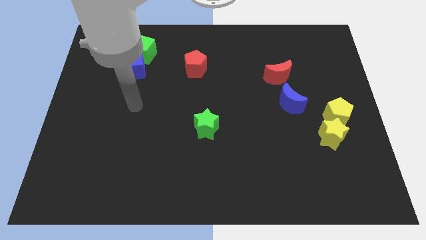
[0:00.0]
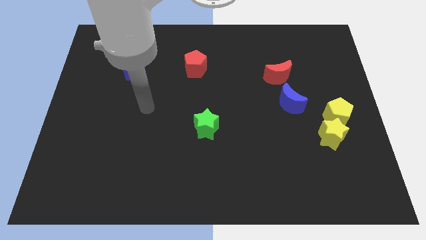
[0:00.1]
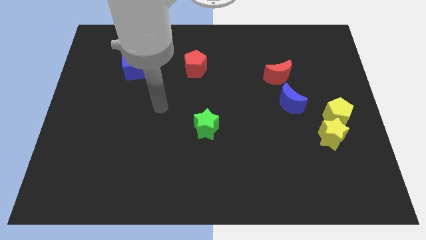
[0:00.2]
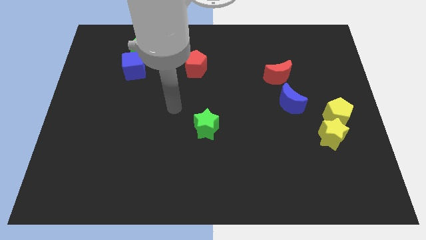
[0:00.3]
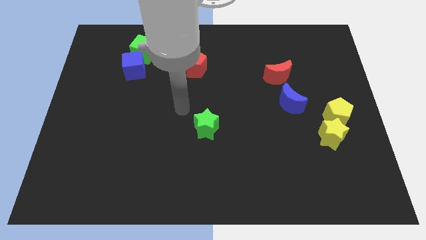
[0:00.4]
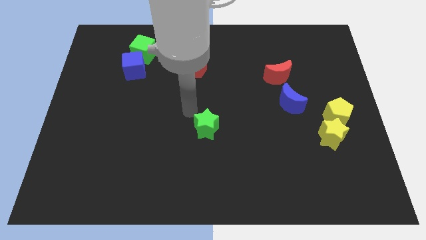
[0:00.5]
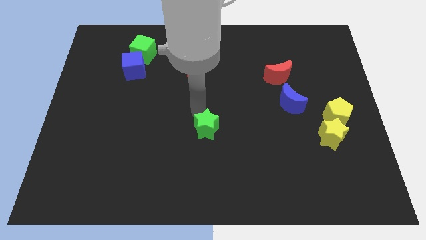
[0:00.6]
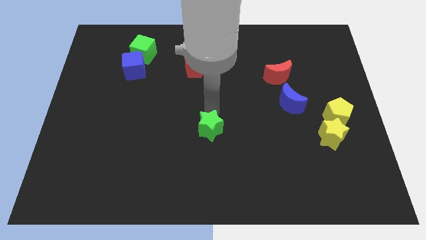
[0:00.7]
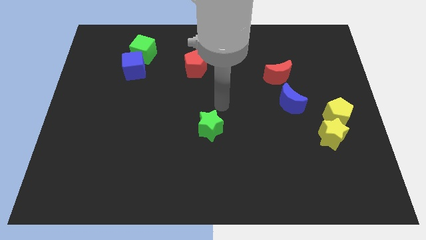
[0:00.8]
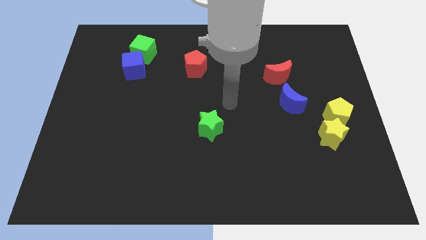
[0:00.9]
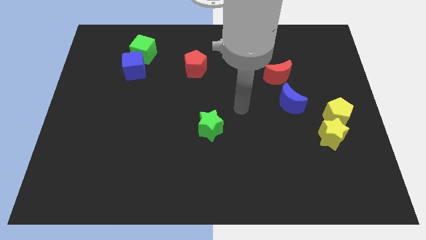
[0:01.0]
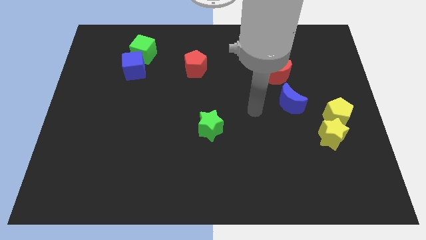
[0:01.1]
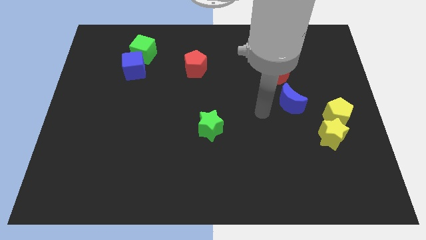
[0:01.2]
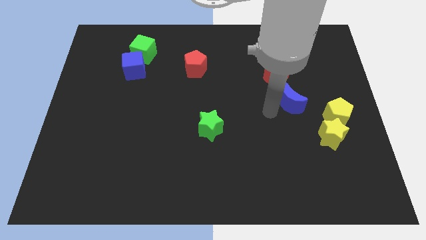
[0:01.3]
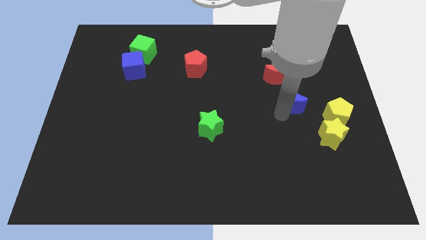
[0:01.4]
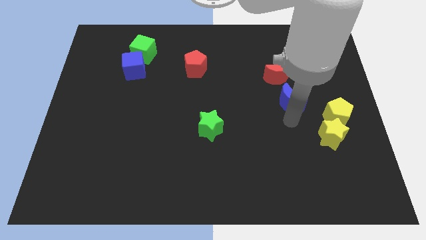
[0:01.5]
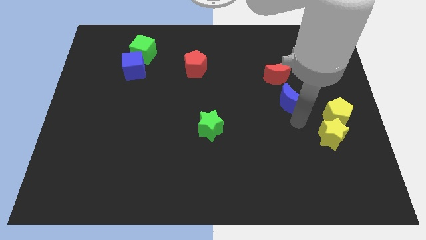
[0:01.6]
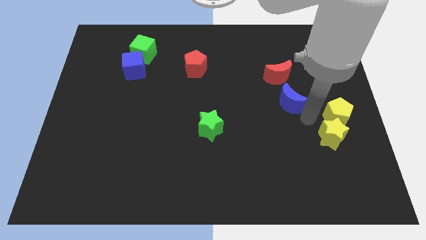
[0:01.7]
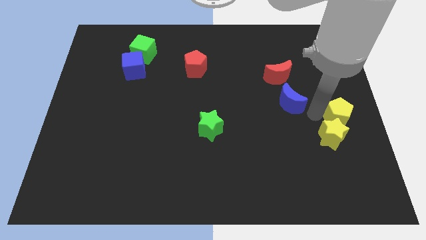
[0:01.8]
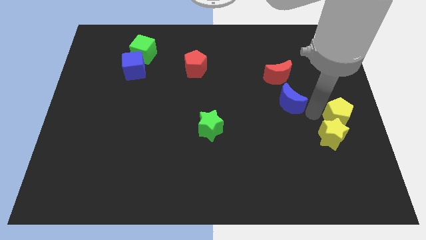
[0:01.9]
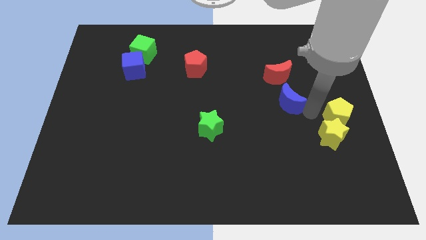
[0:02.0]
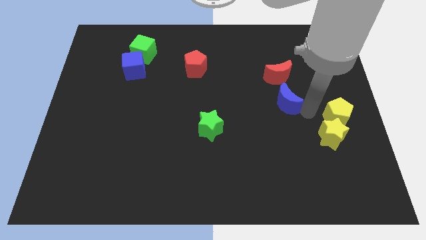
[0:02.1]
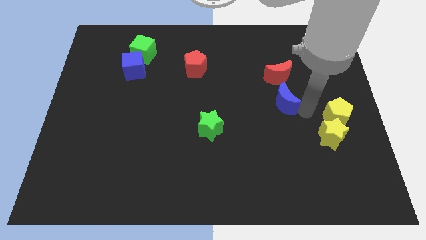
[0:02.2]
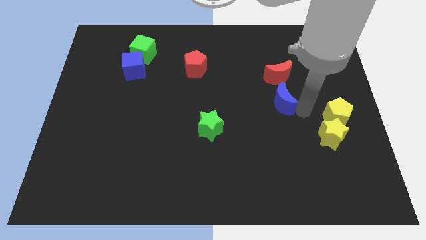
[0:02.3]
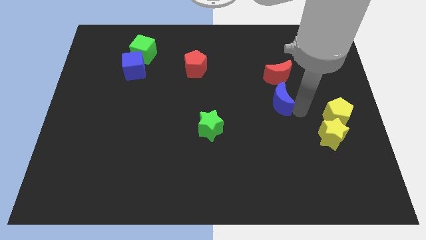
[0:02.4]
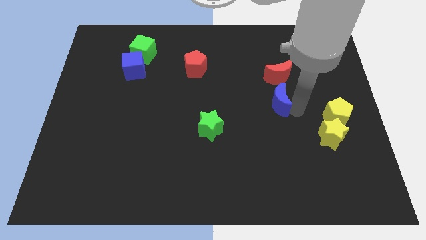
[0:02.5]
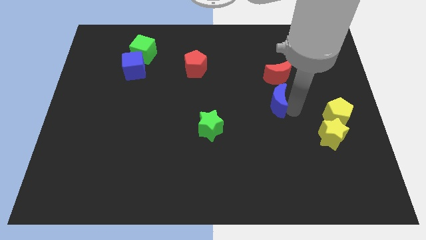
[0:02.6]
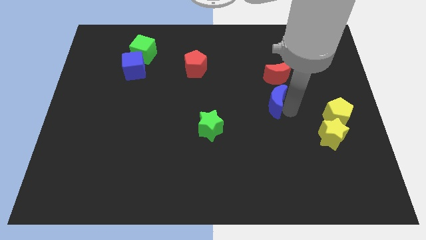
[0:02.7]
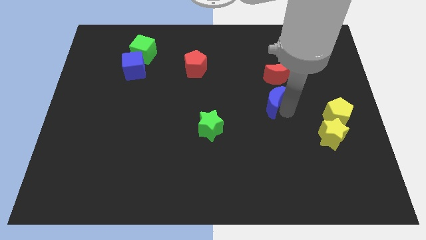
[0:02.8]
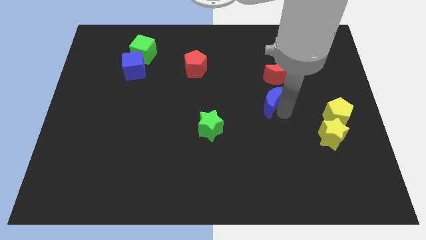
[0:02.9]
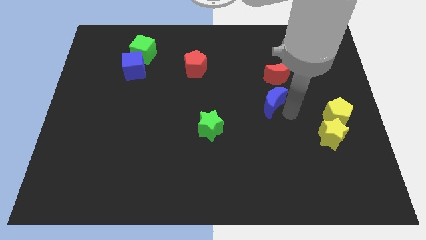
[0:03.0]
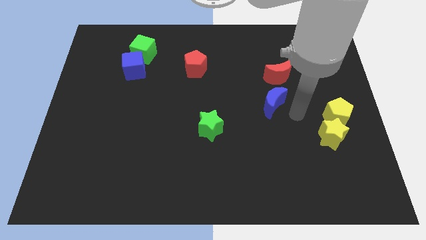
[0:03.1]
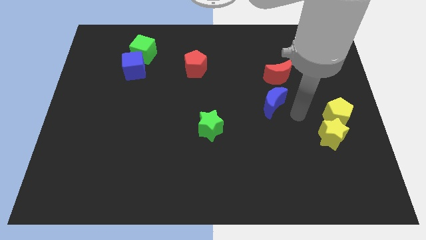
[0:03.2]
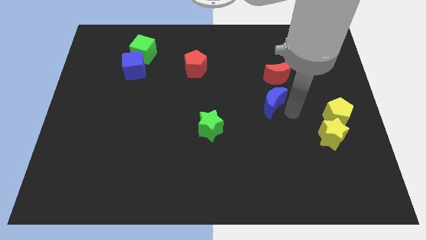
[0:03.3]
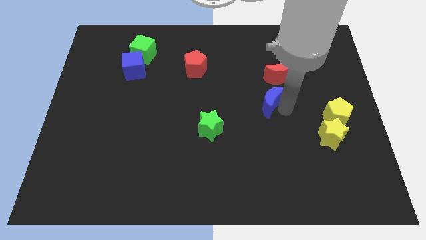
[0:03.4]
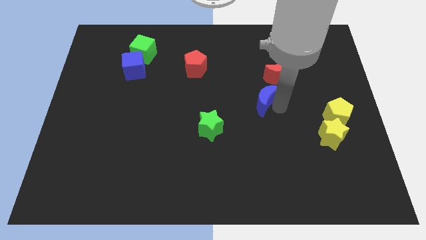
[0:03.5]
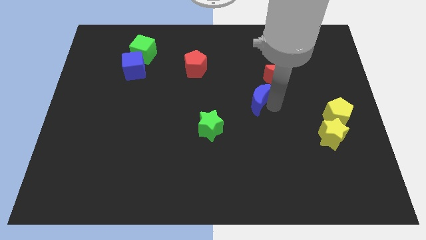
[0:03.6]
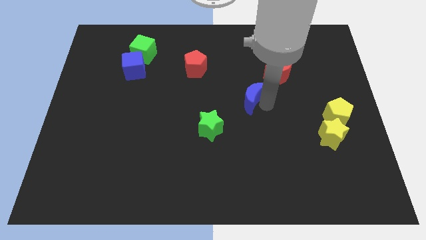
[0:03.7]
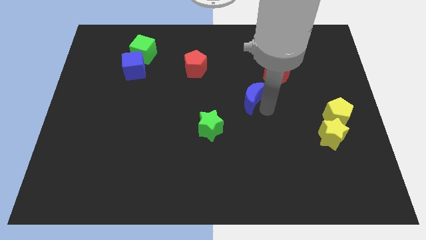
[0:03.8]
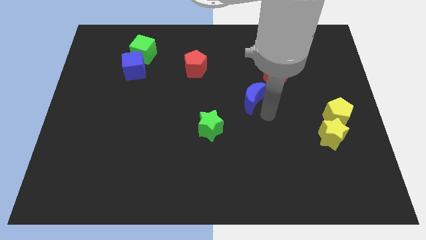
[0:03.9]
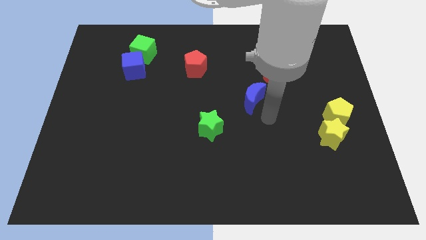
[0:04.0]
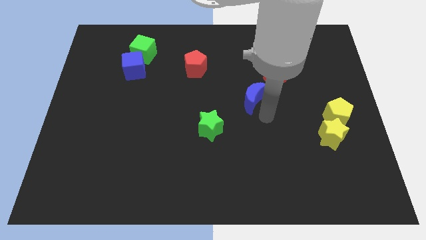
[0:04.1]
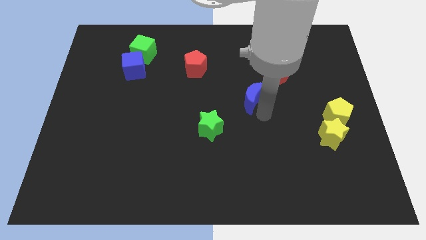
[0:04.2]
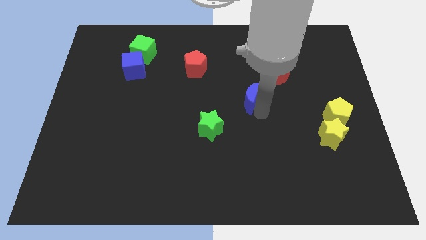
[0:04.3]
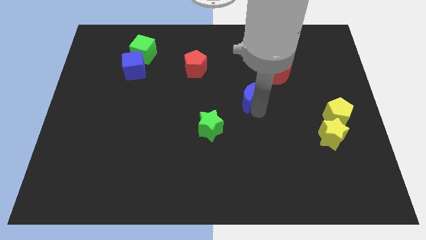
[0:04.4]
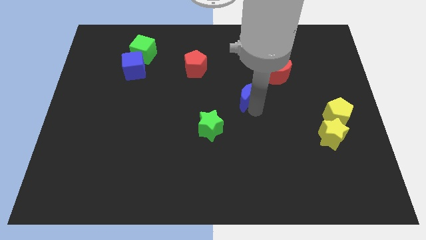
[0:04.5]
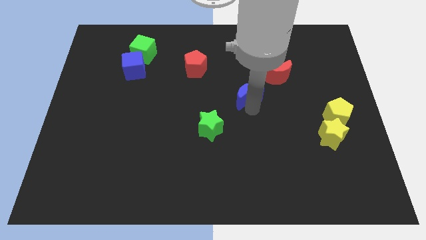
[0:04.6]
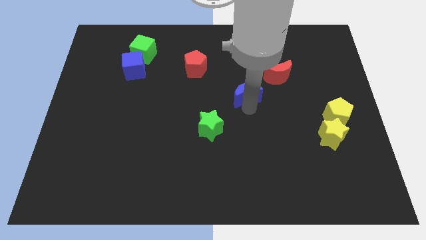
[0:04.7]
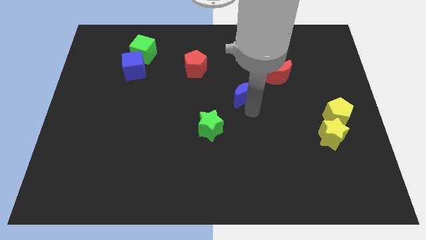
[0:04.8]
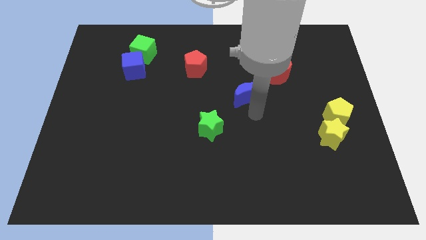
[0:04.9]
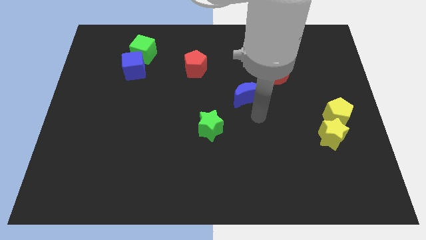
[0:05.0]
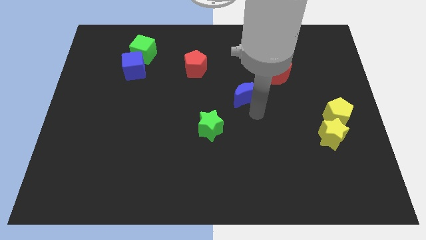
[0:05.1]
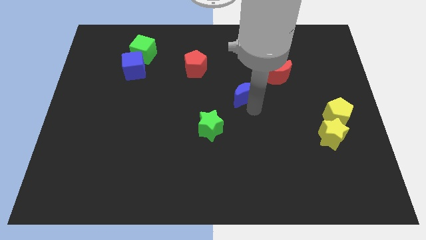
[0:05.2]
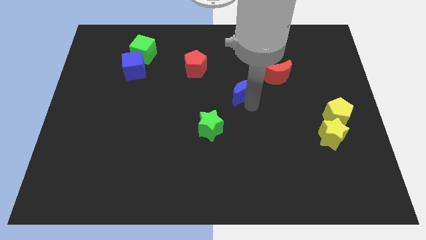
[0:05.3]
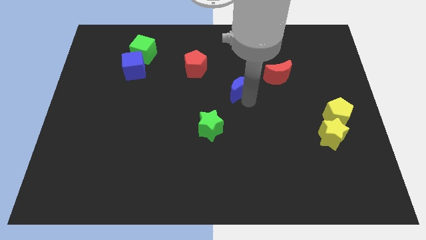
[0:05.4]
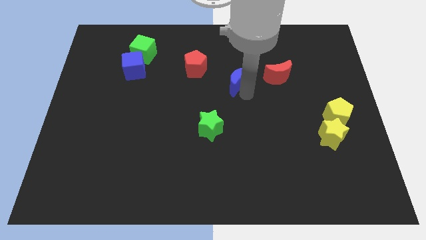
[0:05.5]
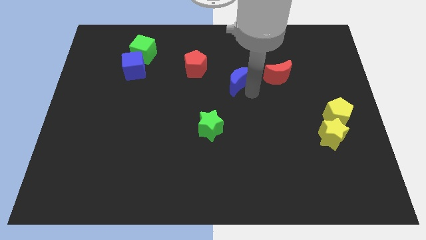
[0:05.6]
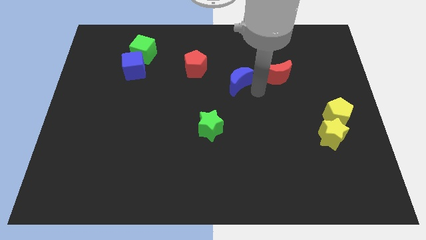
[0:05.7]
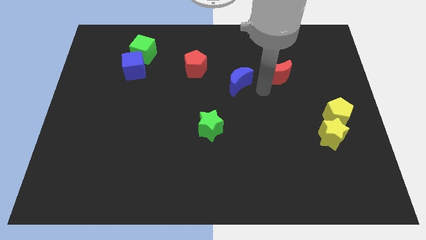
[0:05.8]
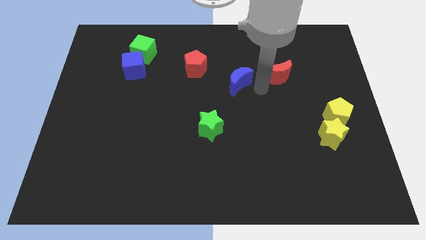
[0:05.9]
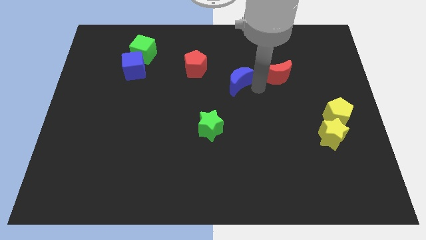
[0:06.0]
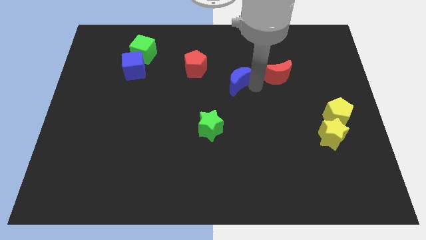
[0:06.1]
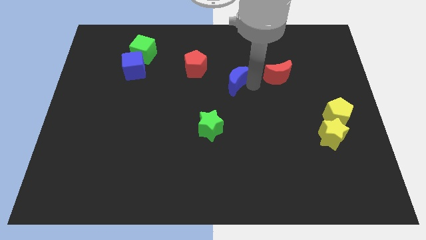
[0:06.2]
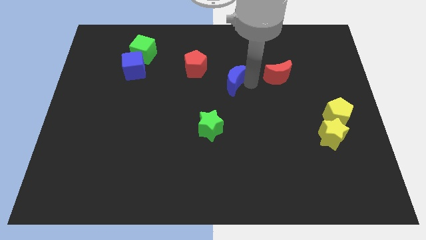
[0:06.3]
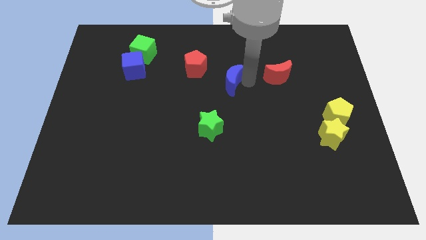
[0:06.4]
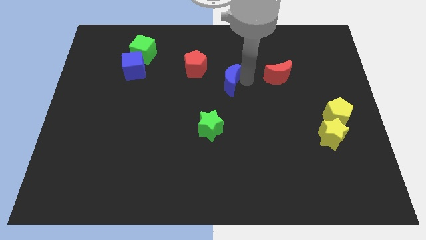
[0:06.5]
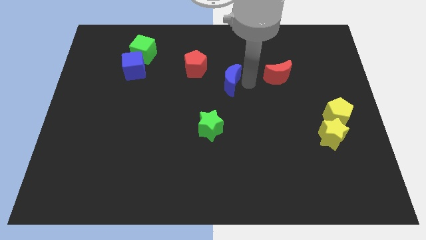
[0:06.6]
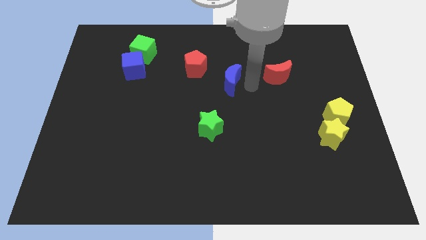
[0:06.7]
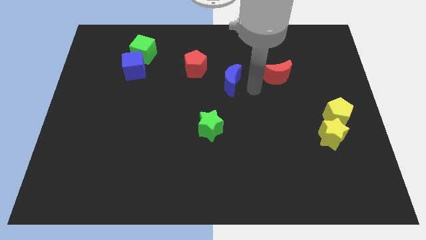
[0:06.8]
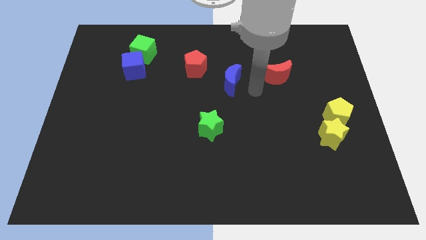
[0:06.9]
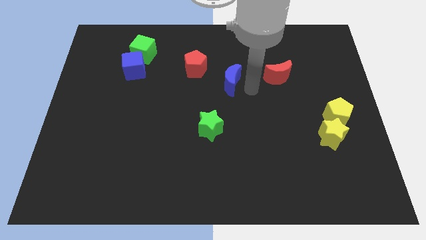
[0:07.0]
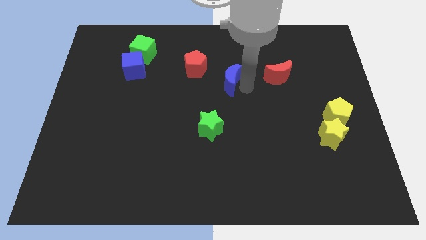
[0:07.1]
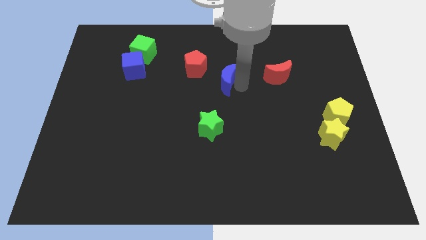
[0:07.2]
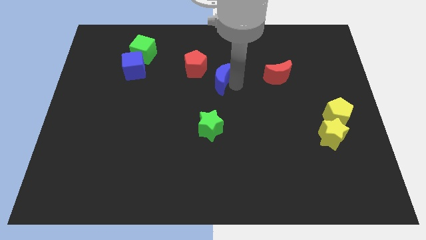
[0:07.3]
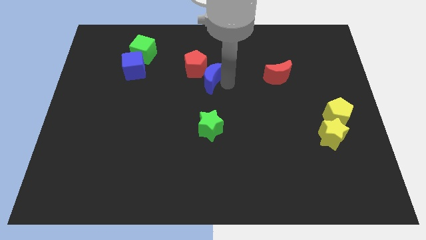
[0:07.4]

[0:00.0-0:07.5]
push the blue moon towards the red pentagon
